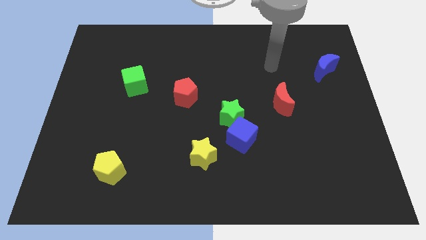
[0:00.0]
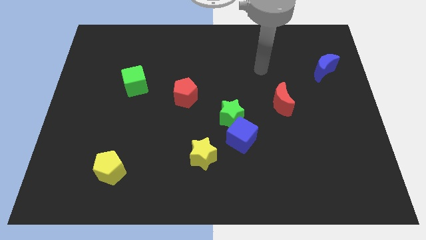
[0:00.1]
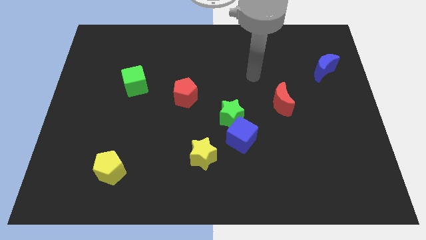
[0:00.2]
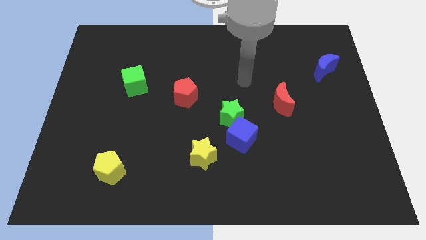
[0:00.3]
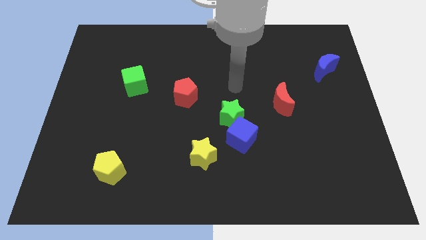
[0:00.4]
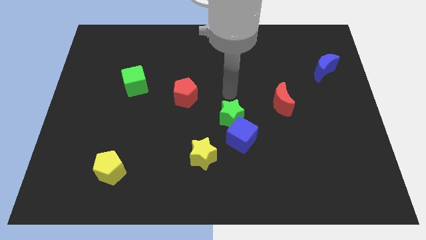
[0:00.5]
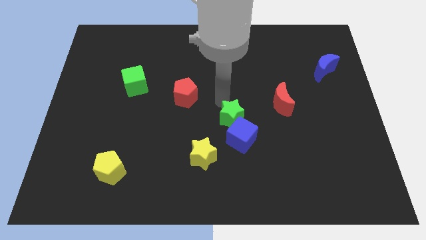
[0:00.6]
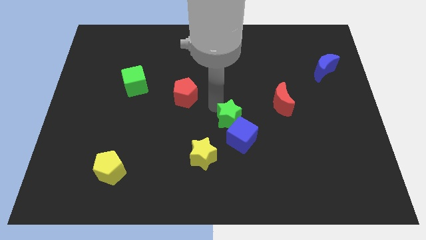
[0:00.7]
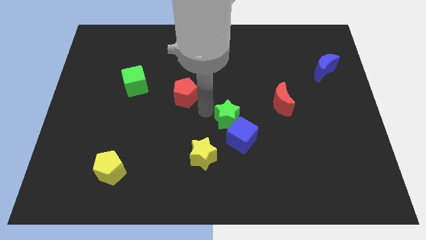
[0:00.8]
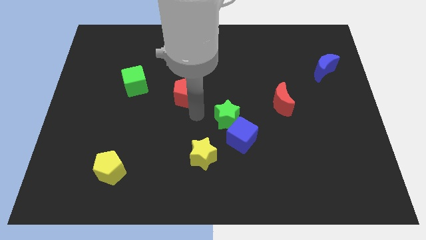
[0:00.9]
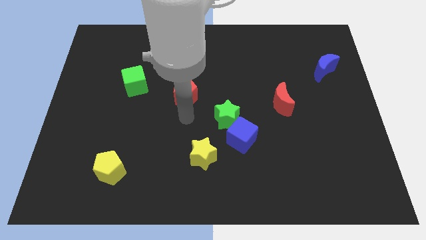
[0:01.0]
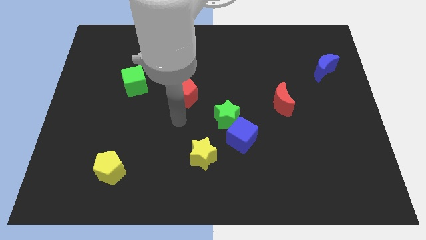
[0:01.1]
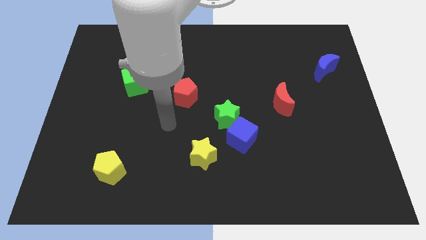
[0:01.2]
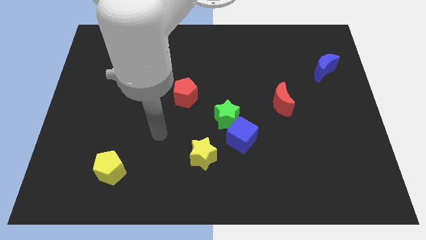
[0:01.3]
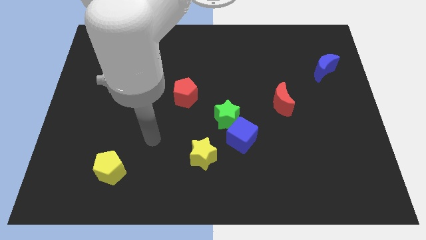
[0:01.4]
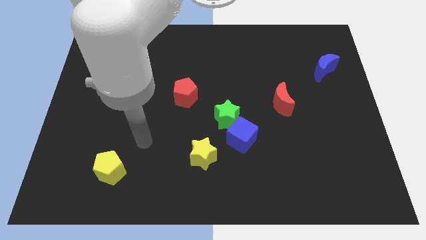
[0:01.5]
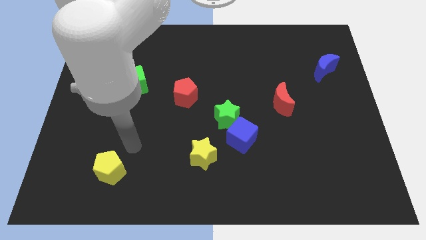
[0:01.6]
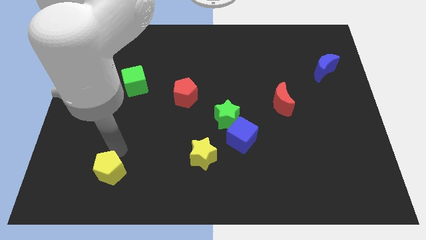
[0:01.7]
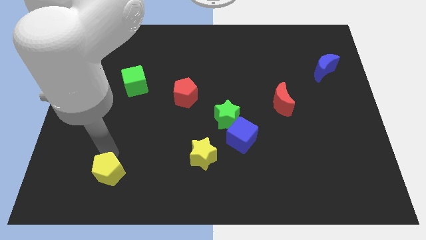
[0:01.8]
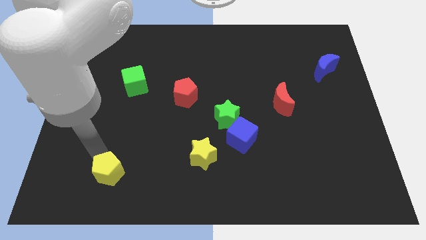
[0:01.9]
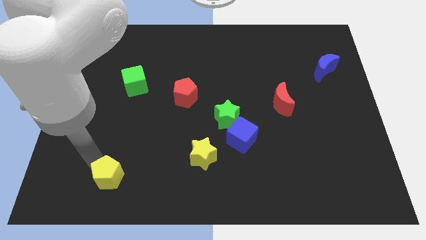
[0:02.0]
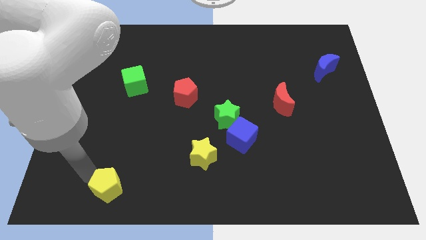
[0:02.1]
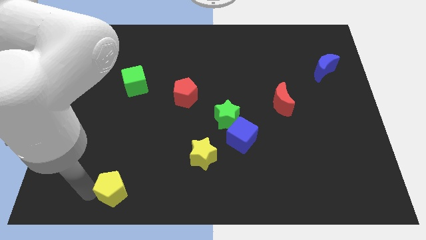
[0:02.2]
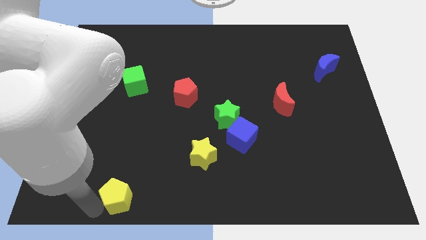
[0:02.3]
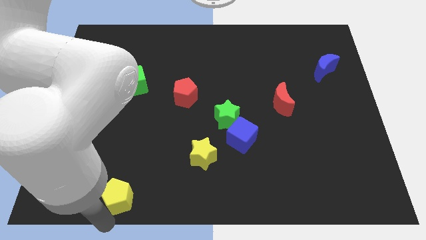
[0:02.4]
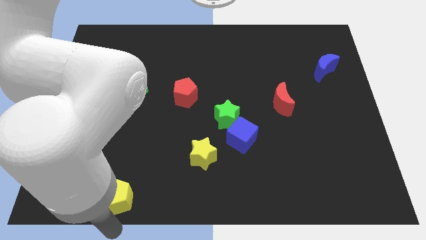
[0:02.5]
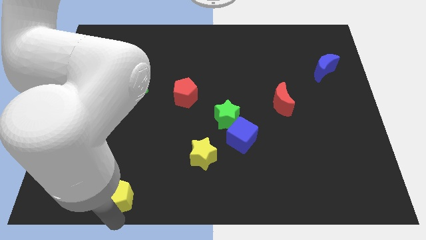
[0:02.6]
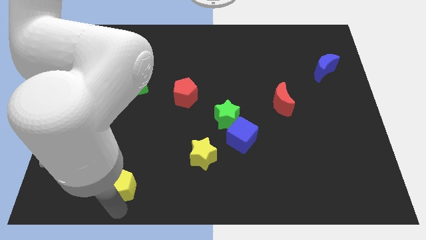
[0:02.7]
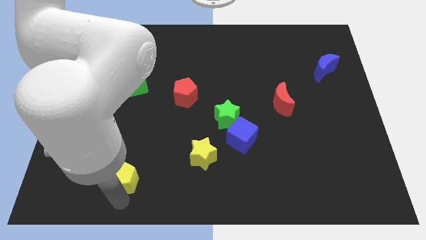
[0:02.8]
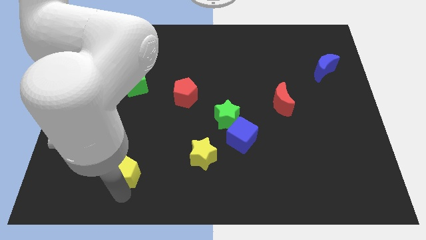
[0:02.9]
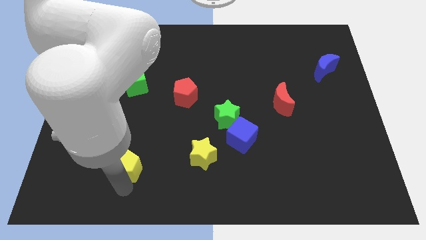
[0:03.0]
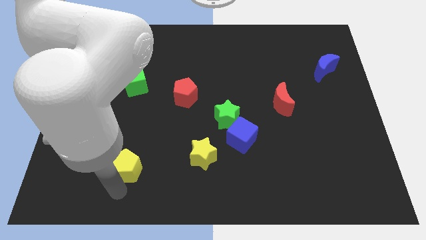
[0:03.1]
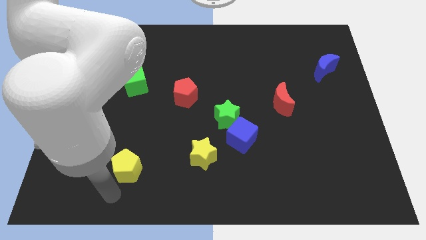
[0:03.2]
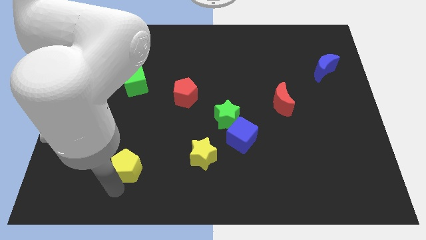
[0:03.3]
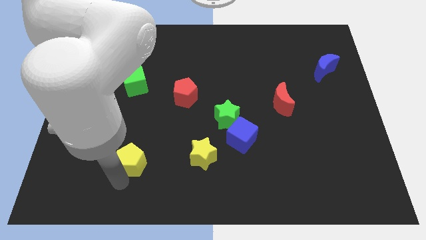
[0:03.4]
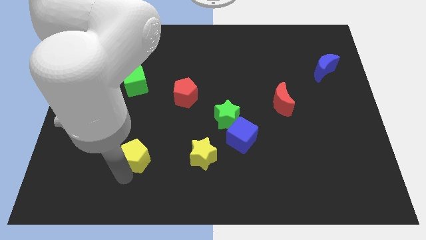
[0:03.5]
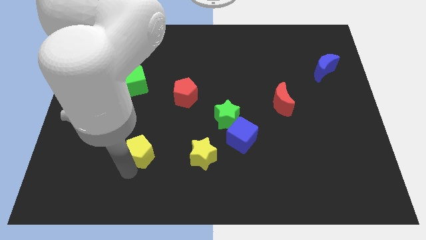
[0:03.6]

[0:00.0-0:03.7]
slightly slide the yellow pentagon up and right diagonally

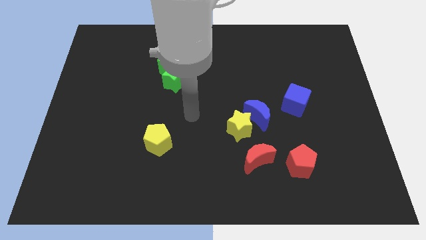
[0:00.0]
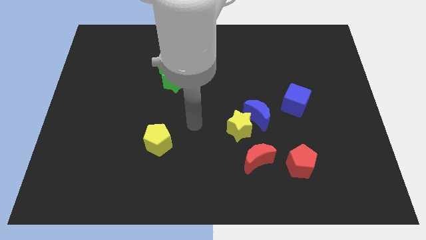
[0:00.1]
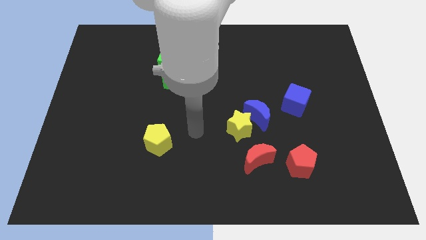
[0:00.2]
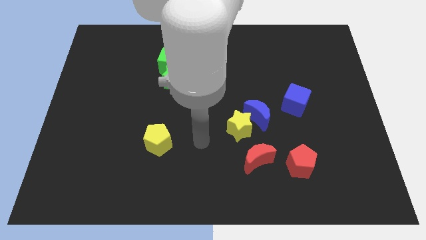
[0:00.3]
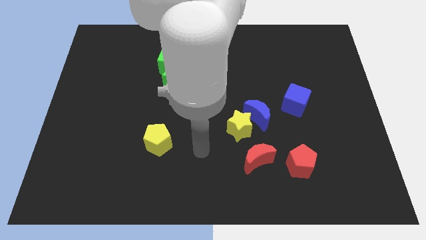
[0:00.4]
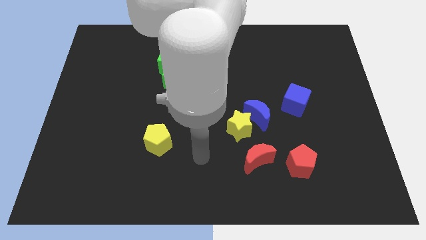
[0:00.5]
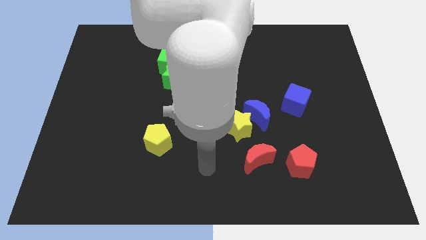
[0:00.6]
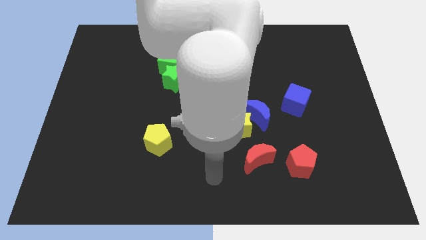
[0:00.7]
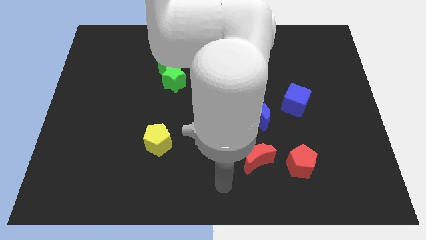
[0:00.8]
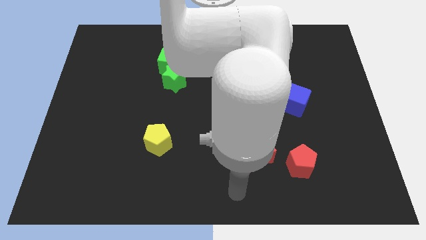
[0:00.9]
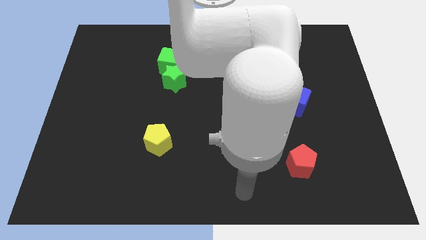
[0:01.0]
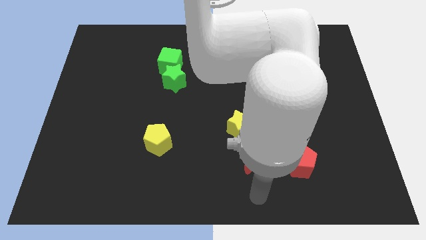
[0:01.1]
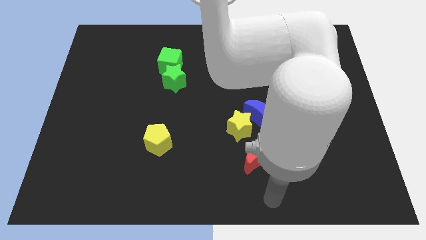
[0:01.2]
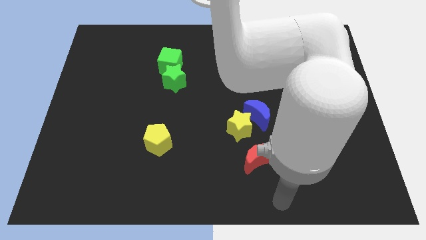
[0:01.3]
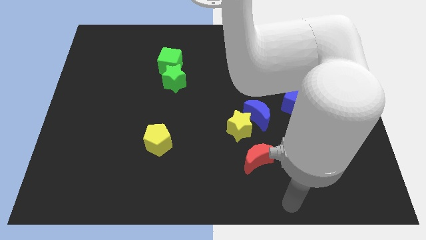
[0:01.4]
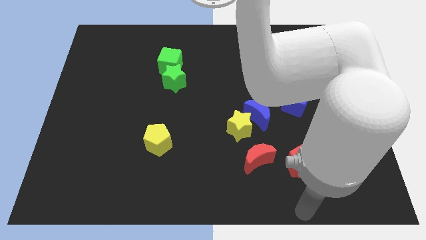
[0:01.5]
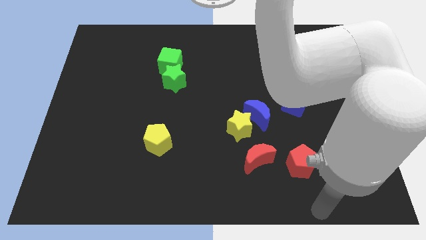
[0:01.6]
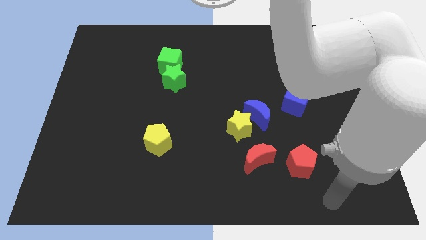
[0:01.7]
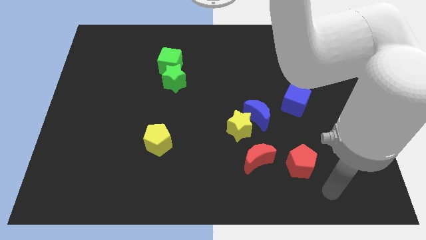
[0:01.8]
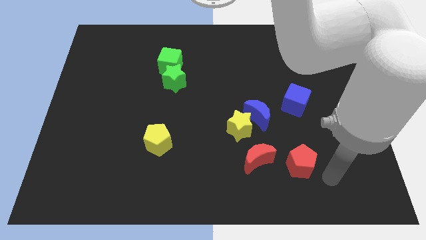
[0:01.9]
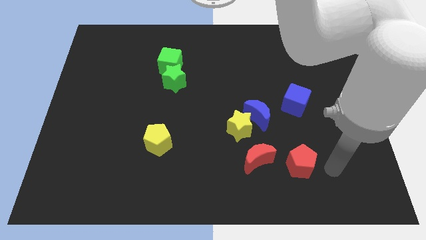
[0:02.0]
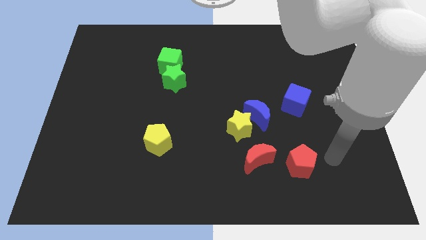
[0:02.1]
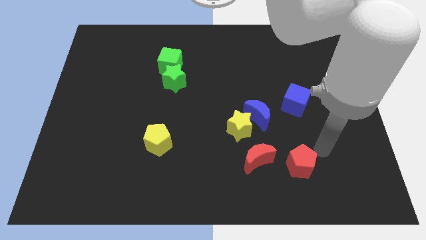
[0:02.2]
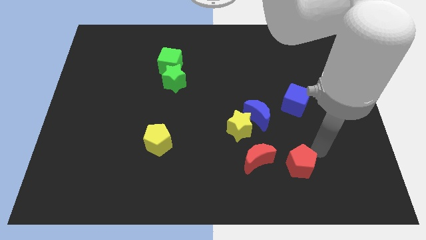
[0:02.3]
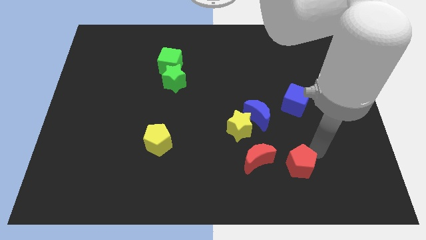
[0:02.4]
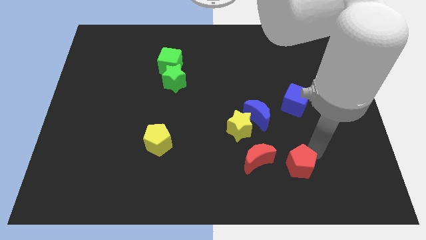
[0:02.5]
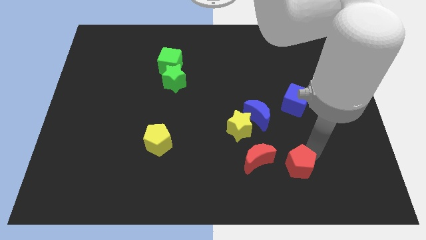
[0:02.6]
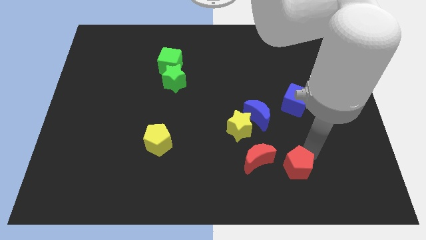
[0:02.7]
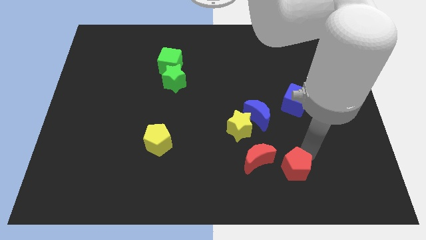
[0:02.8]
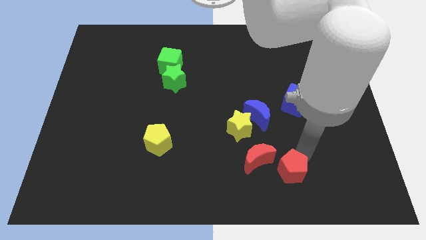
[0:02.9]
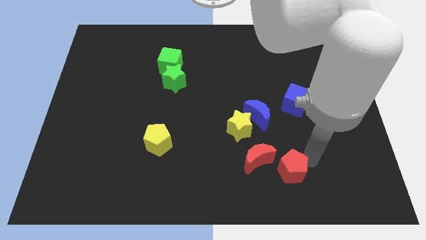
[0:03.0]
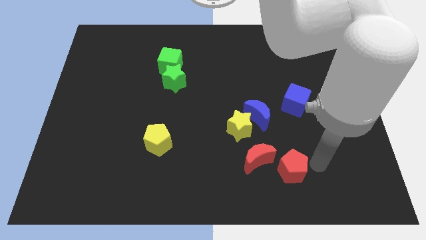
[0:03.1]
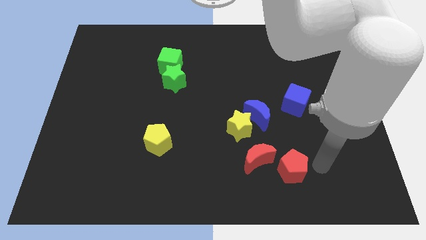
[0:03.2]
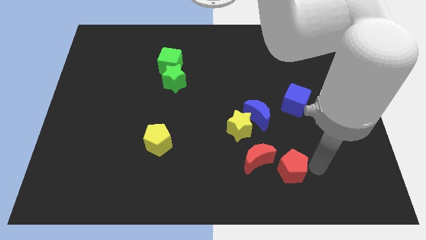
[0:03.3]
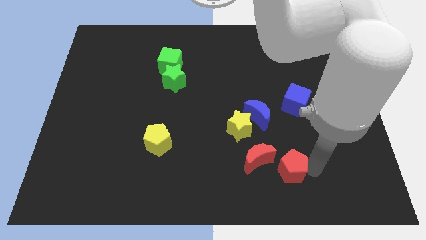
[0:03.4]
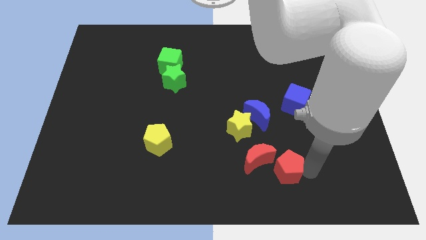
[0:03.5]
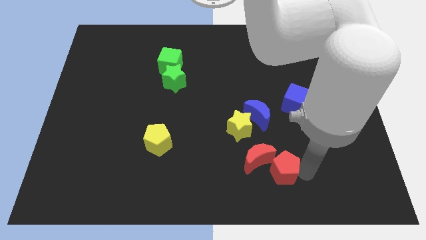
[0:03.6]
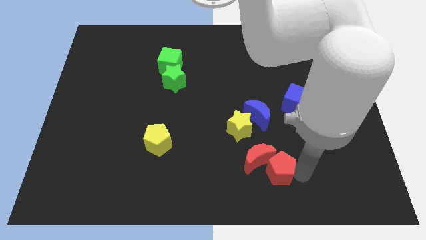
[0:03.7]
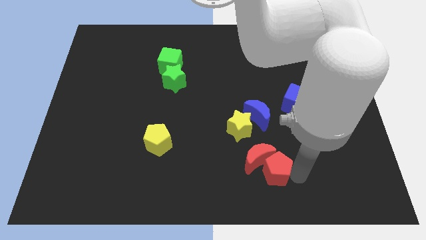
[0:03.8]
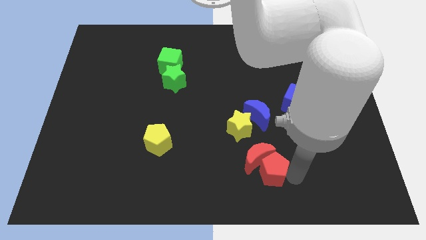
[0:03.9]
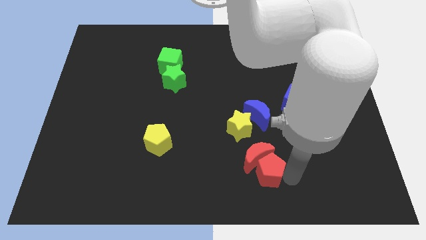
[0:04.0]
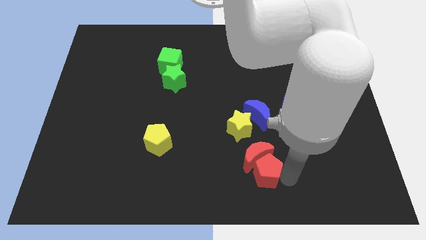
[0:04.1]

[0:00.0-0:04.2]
push the red pentagon left somewhat
